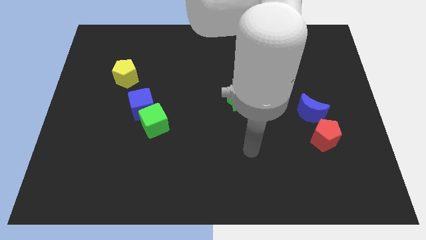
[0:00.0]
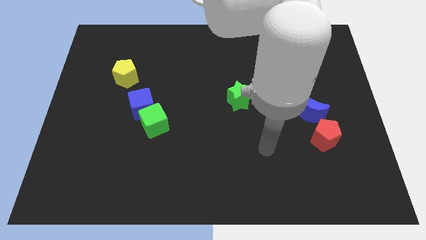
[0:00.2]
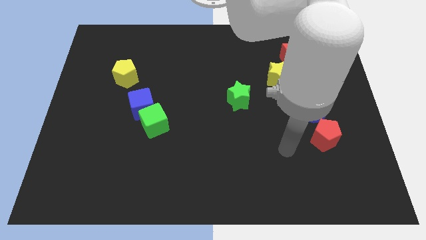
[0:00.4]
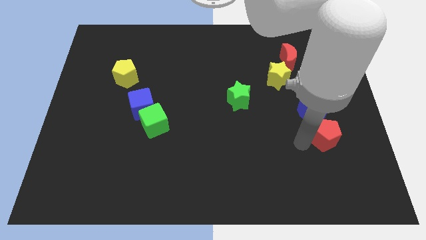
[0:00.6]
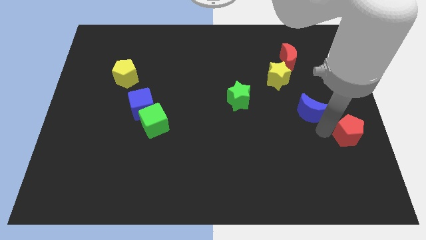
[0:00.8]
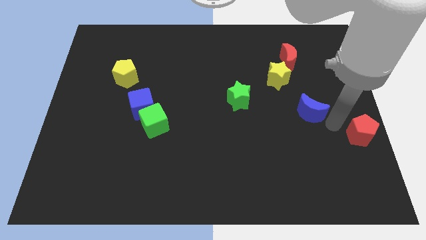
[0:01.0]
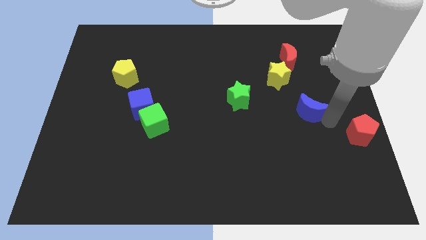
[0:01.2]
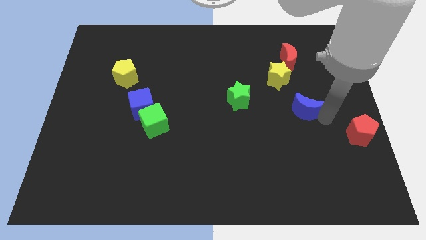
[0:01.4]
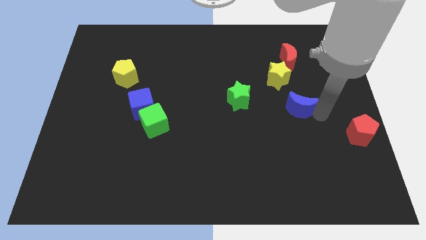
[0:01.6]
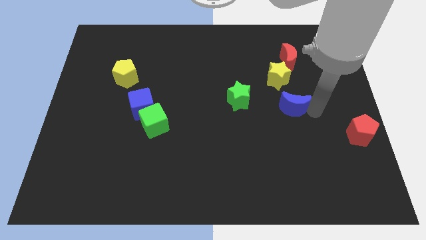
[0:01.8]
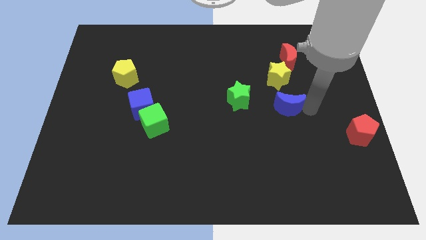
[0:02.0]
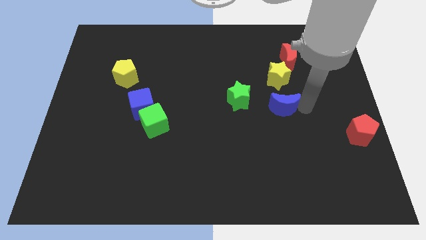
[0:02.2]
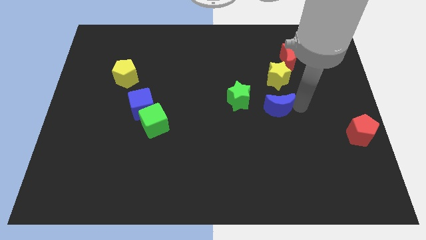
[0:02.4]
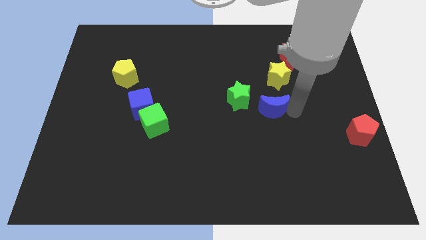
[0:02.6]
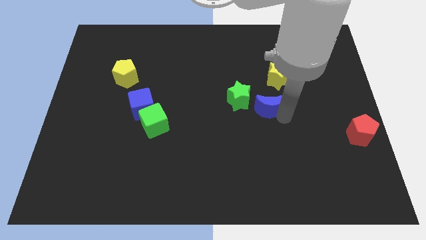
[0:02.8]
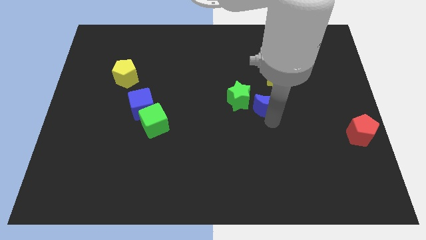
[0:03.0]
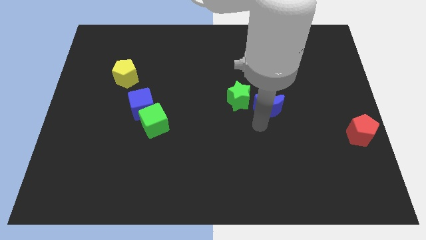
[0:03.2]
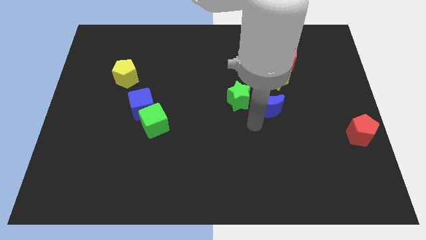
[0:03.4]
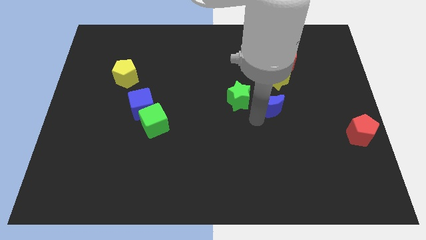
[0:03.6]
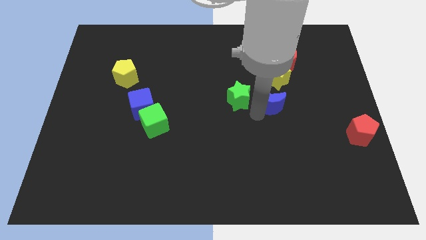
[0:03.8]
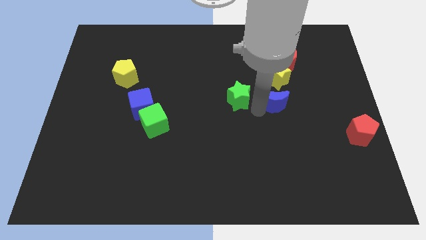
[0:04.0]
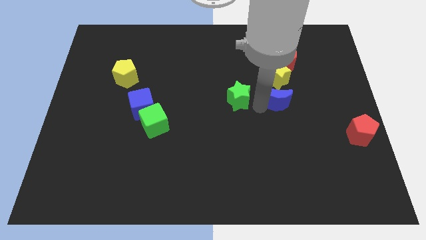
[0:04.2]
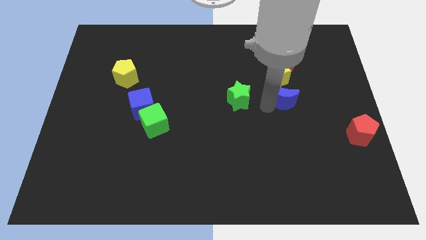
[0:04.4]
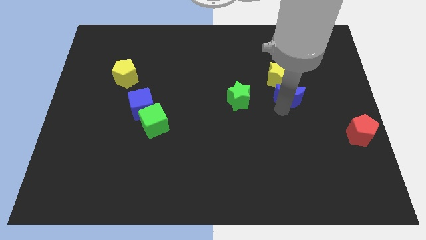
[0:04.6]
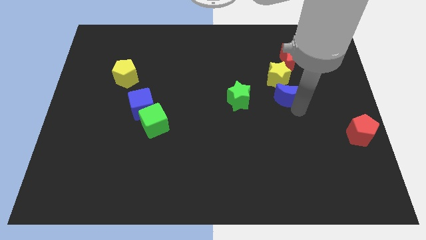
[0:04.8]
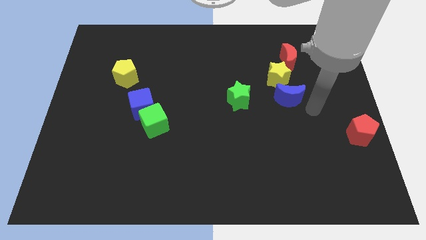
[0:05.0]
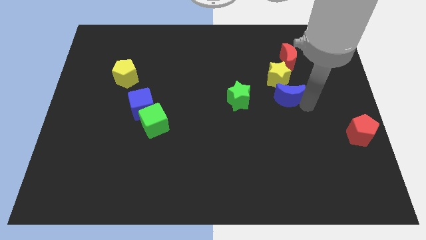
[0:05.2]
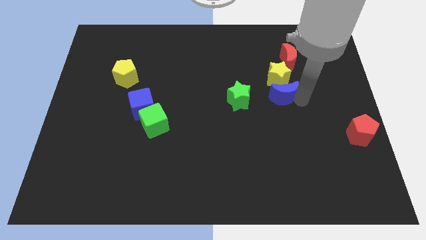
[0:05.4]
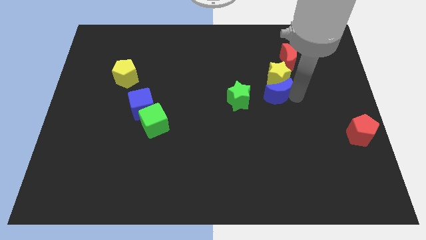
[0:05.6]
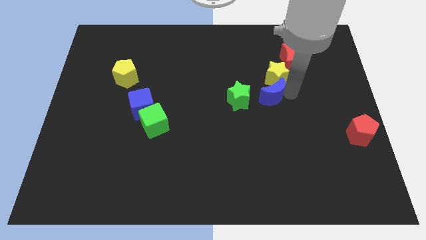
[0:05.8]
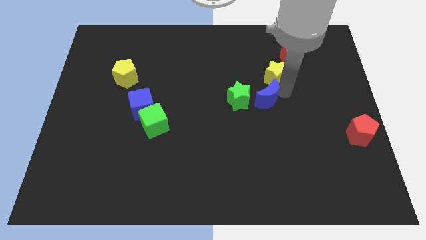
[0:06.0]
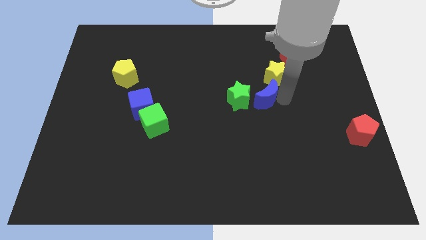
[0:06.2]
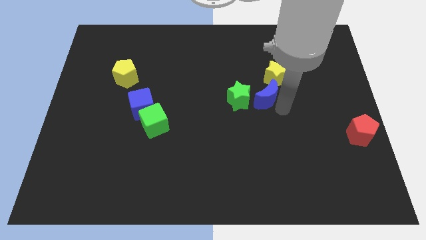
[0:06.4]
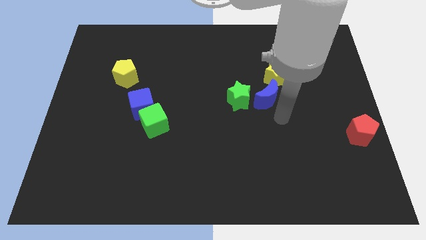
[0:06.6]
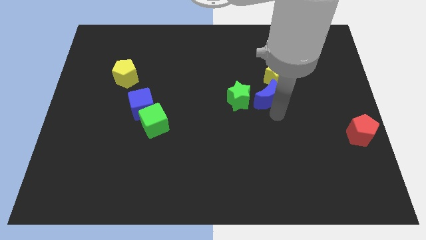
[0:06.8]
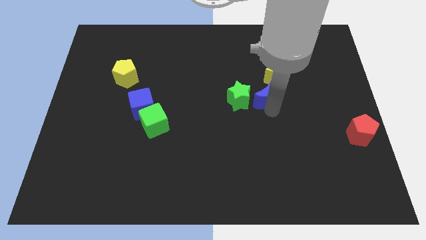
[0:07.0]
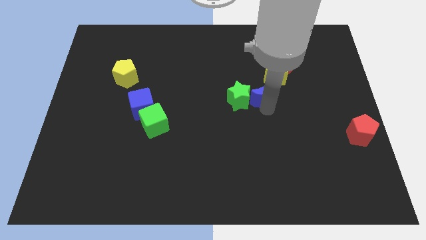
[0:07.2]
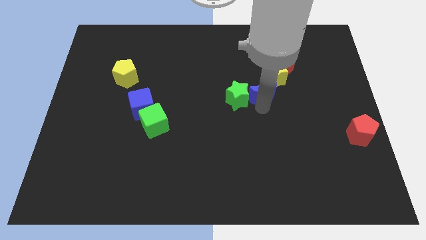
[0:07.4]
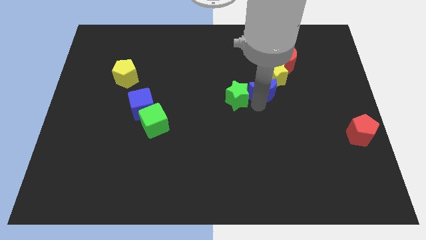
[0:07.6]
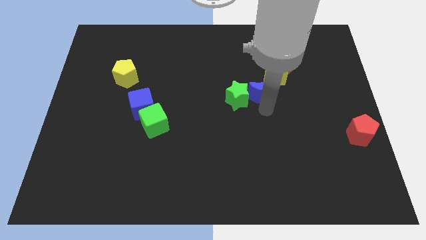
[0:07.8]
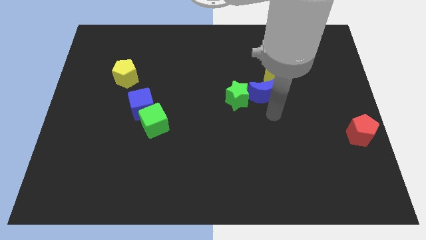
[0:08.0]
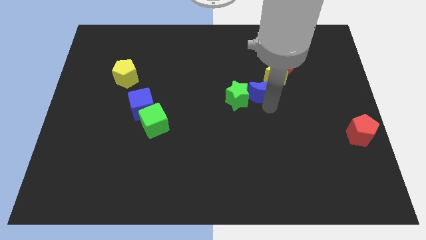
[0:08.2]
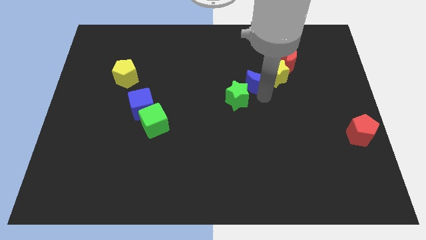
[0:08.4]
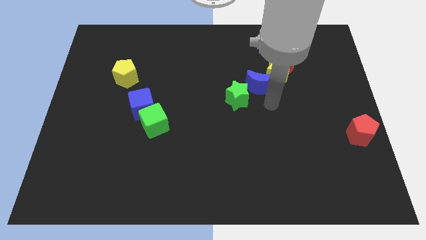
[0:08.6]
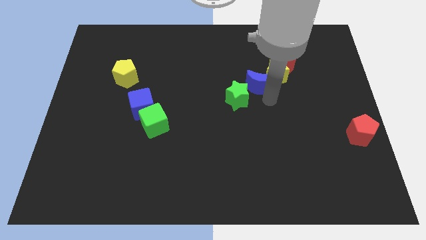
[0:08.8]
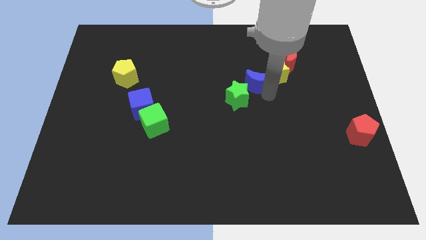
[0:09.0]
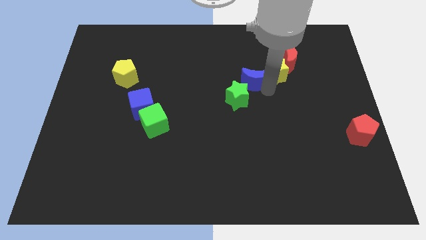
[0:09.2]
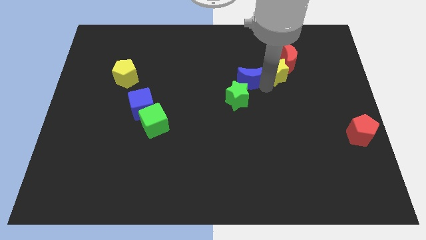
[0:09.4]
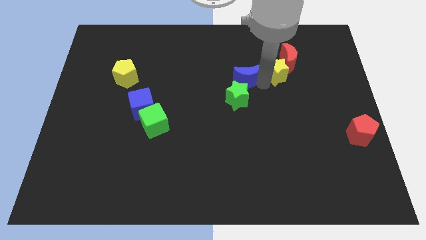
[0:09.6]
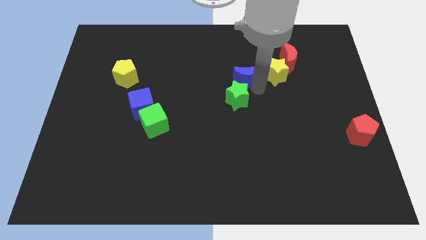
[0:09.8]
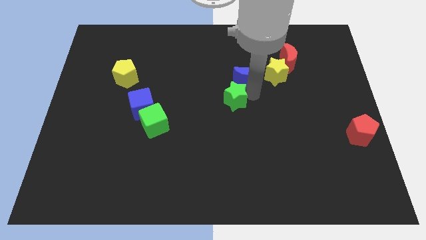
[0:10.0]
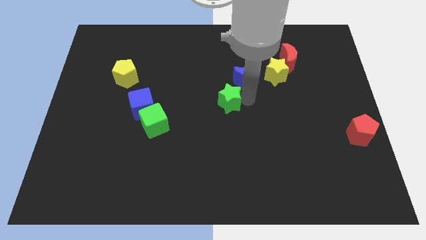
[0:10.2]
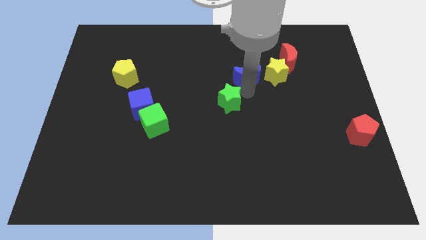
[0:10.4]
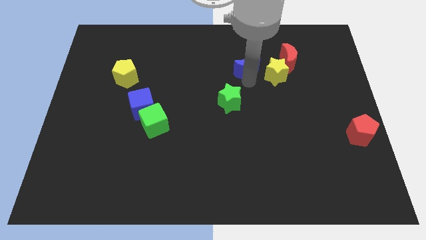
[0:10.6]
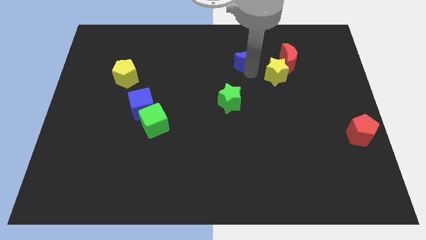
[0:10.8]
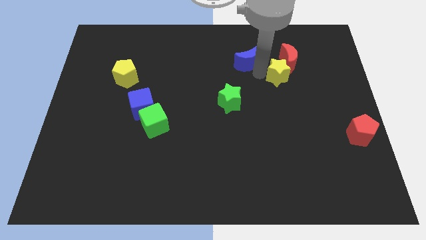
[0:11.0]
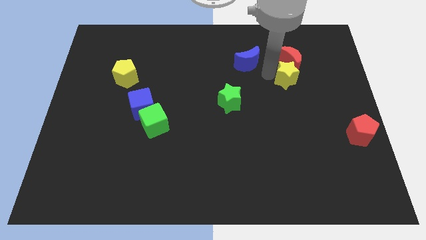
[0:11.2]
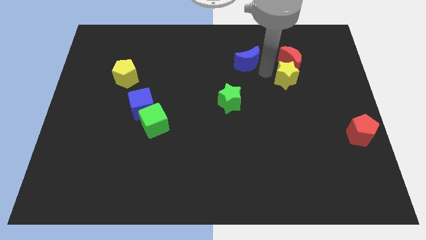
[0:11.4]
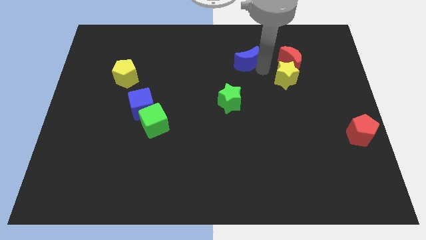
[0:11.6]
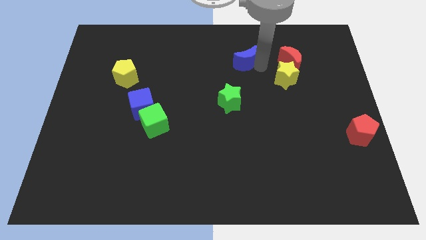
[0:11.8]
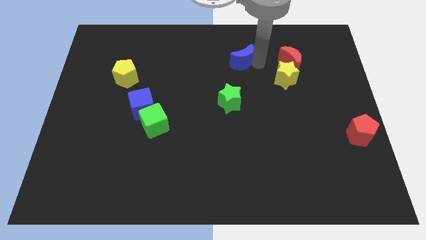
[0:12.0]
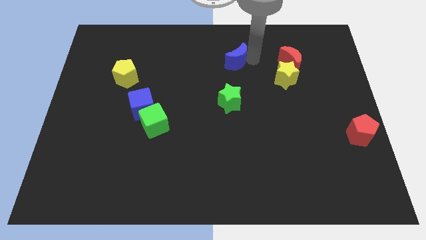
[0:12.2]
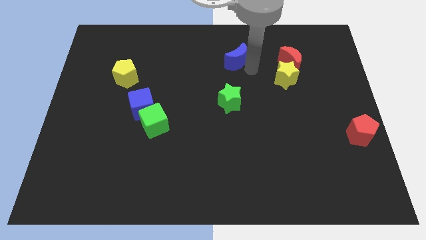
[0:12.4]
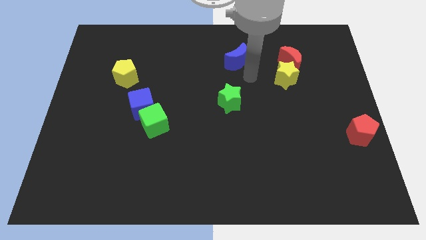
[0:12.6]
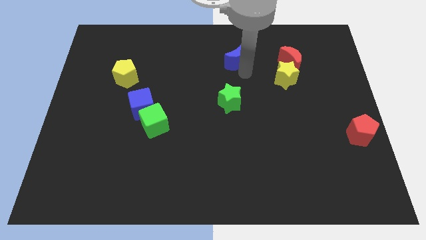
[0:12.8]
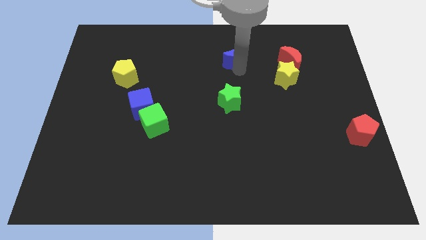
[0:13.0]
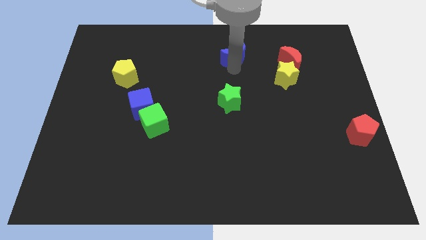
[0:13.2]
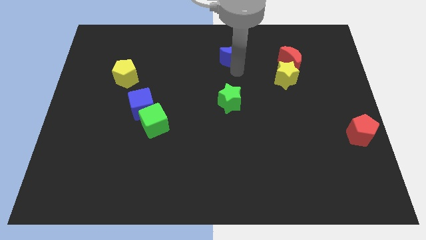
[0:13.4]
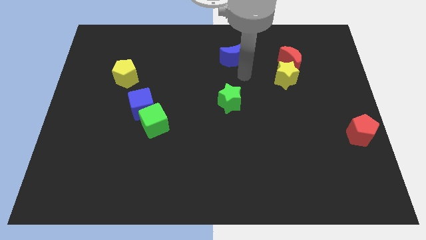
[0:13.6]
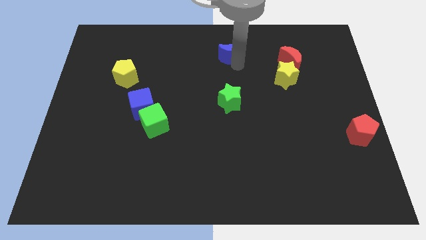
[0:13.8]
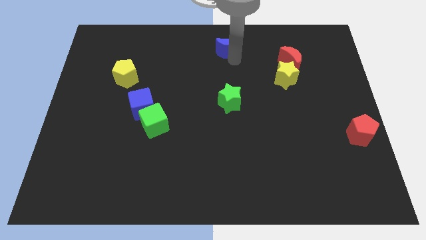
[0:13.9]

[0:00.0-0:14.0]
move the blue moon to the top side
